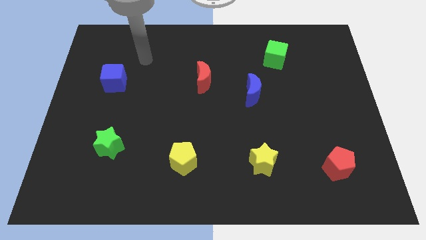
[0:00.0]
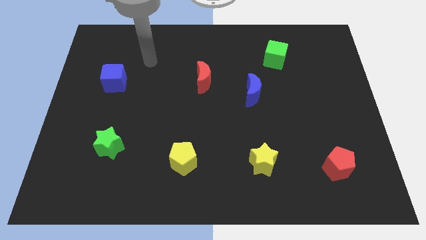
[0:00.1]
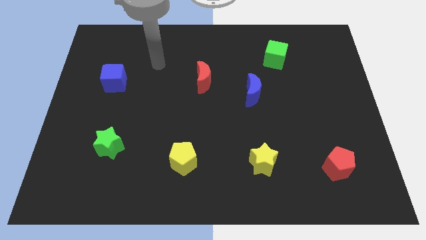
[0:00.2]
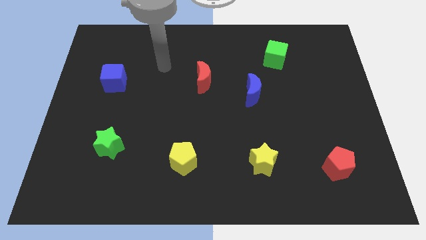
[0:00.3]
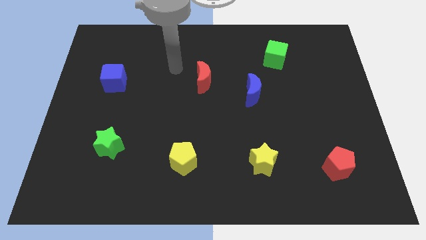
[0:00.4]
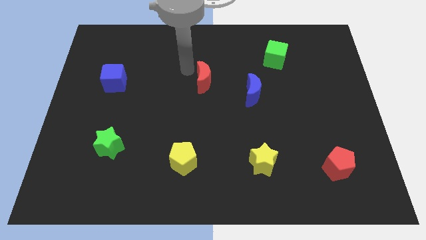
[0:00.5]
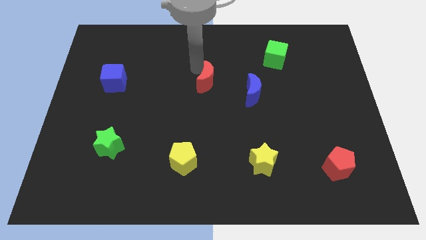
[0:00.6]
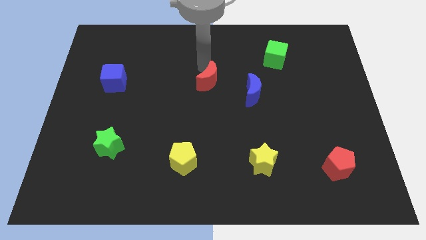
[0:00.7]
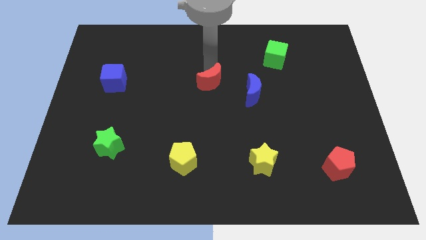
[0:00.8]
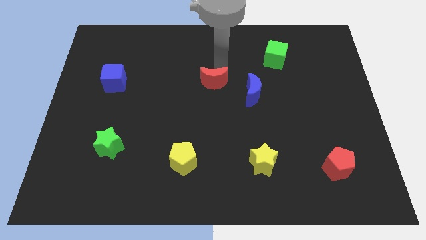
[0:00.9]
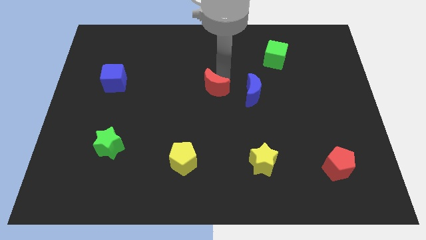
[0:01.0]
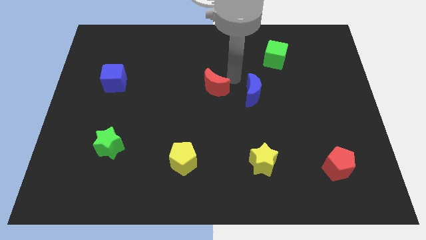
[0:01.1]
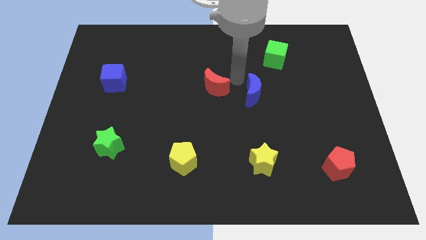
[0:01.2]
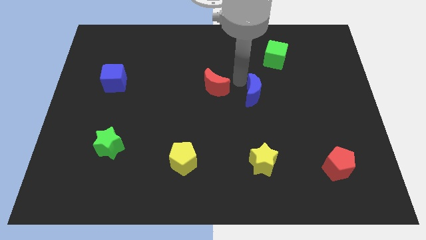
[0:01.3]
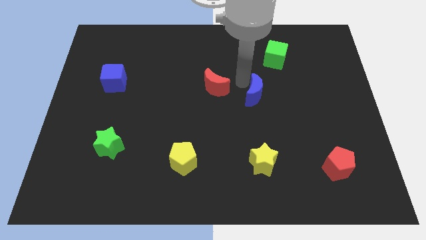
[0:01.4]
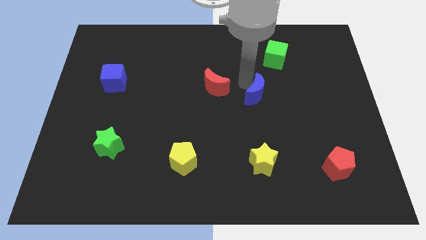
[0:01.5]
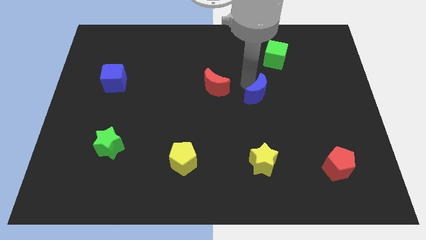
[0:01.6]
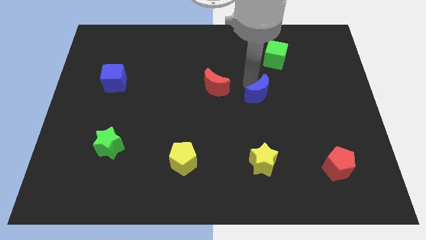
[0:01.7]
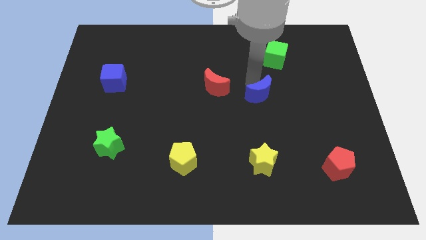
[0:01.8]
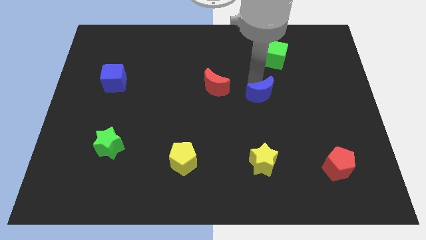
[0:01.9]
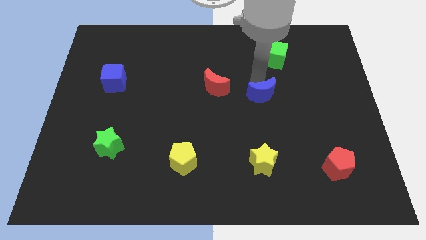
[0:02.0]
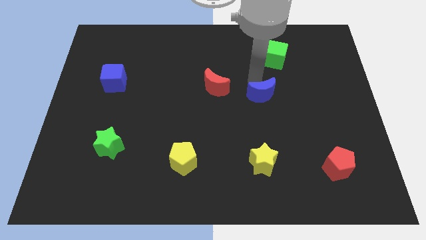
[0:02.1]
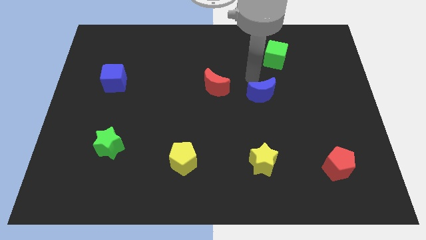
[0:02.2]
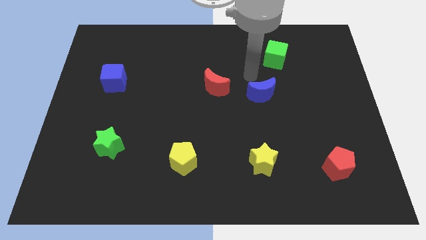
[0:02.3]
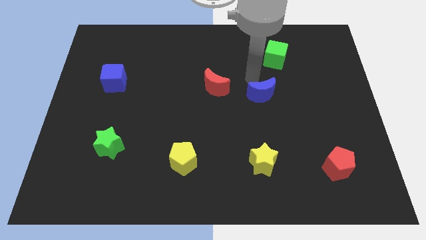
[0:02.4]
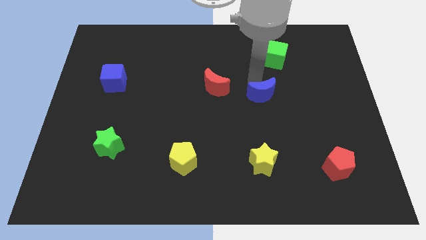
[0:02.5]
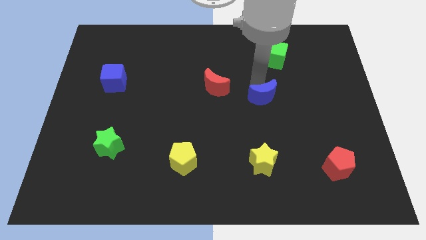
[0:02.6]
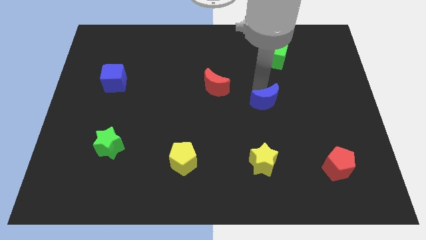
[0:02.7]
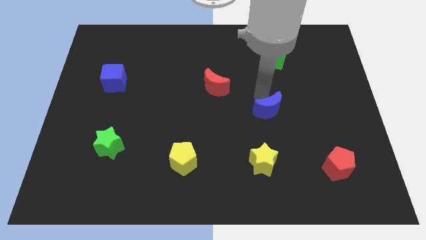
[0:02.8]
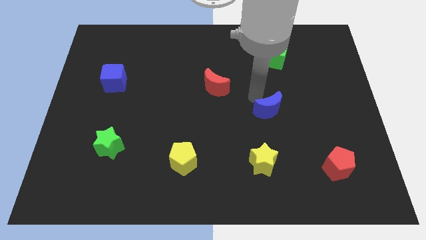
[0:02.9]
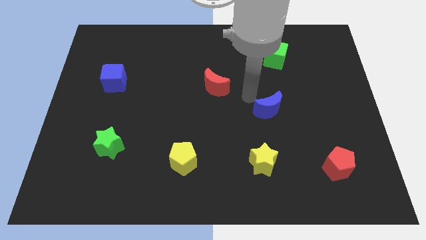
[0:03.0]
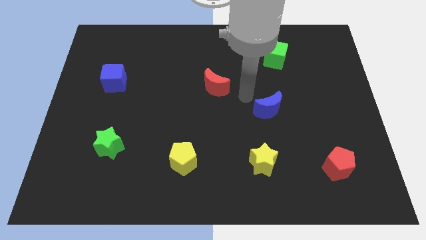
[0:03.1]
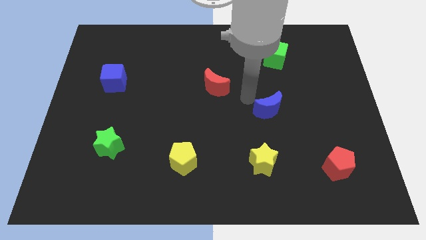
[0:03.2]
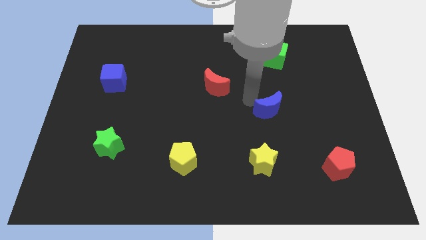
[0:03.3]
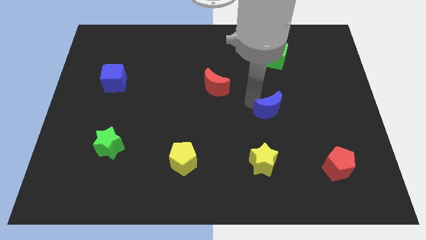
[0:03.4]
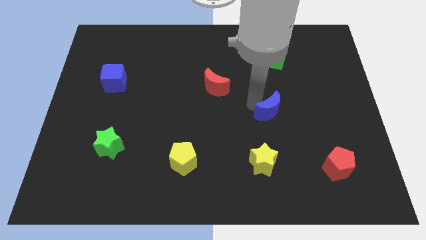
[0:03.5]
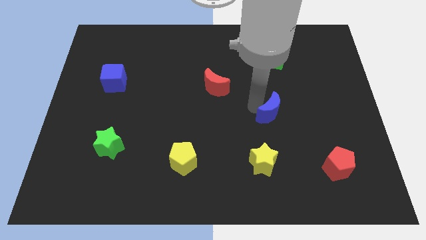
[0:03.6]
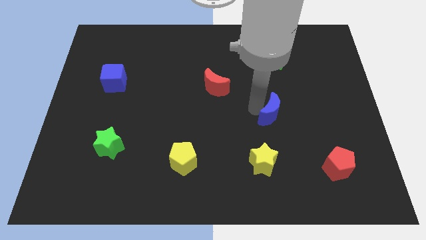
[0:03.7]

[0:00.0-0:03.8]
push the blue moon downwards and to the right diagonally somewhat

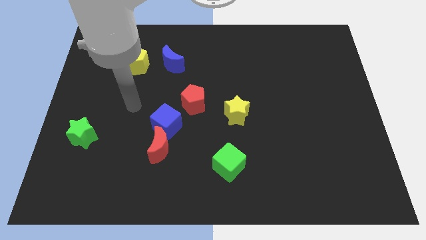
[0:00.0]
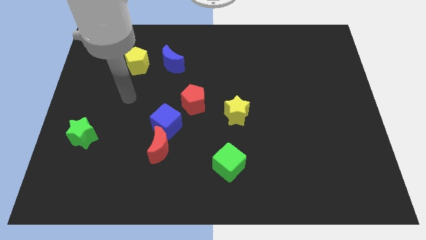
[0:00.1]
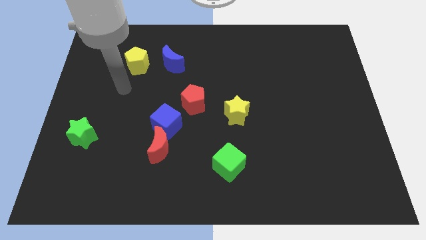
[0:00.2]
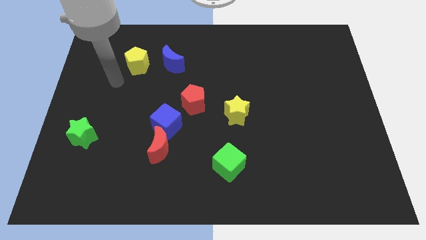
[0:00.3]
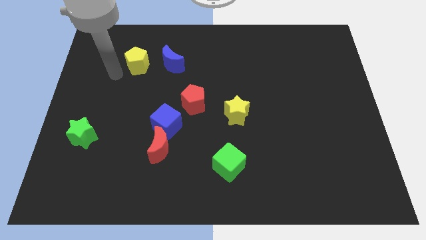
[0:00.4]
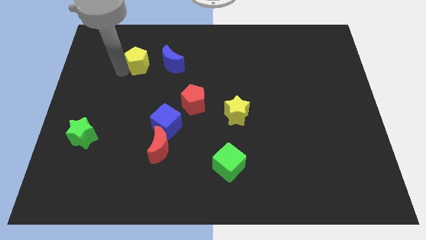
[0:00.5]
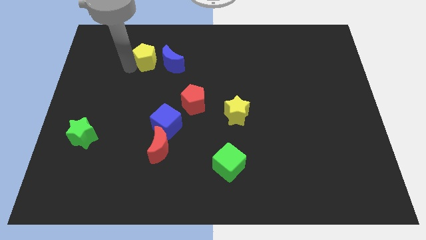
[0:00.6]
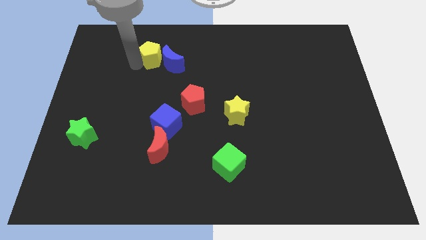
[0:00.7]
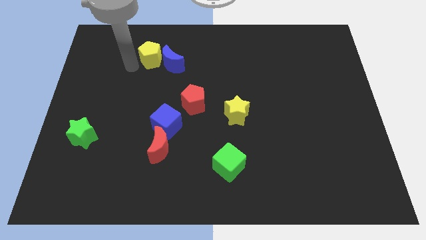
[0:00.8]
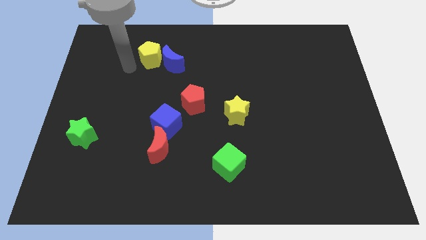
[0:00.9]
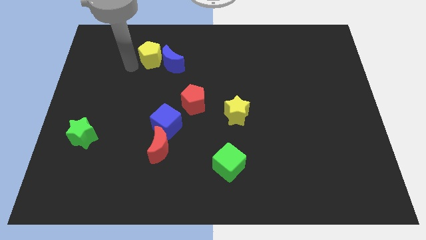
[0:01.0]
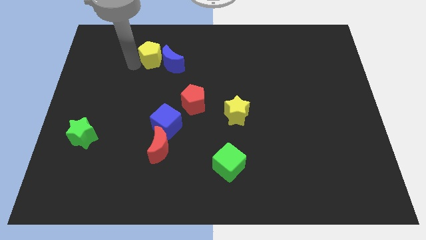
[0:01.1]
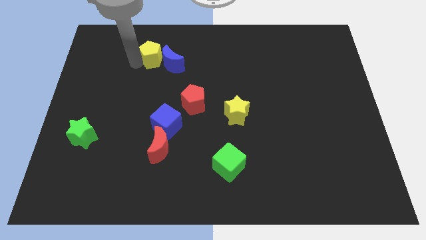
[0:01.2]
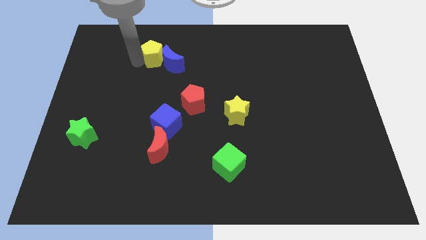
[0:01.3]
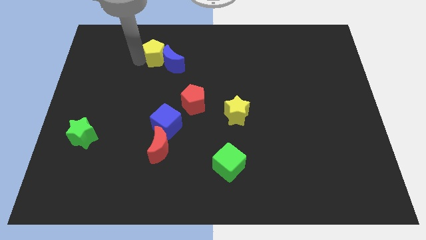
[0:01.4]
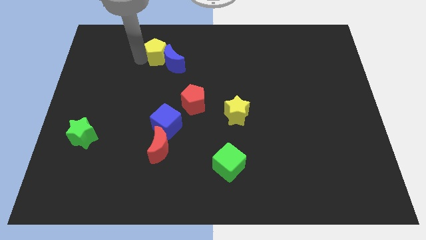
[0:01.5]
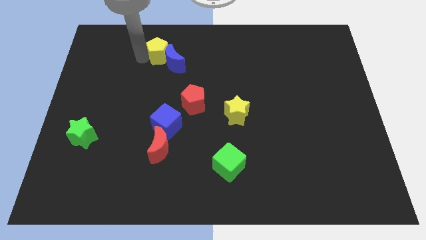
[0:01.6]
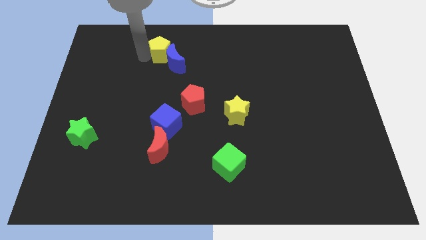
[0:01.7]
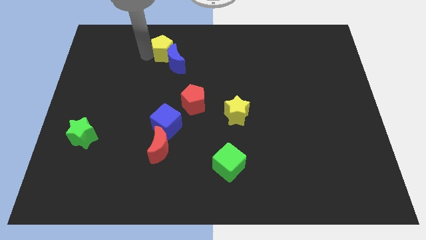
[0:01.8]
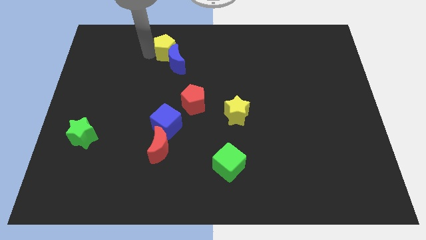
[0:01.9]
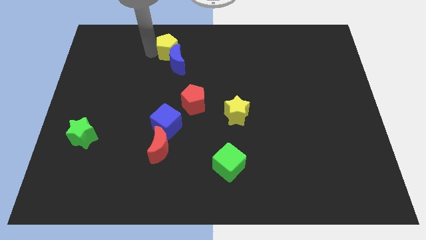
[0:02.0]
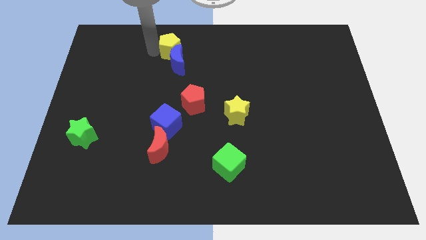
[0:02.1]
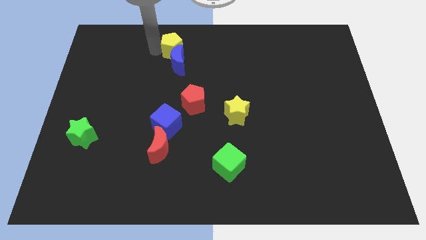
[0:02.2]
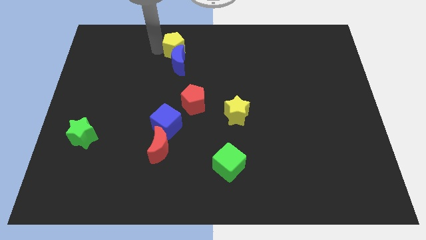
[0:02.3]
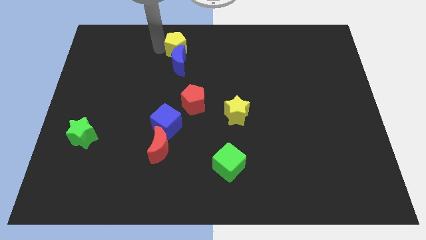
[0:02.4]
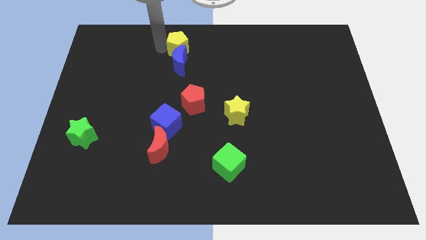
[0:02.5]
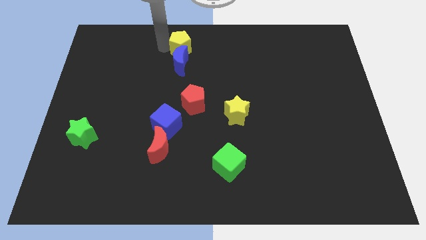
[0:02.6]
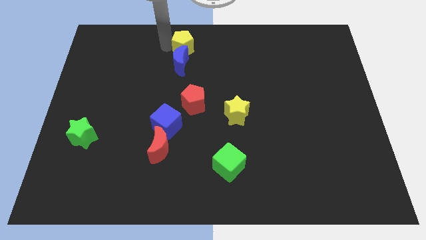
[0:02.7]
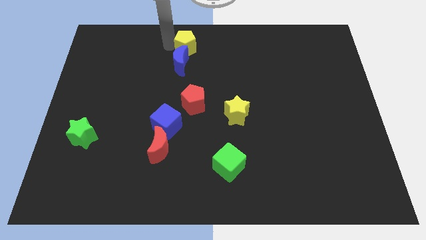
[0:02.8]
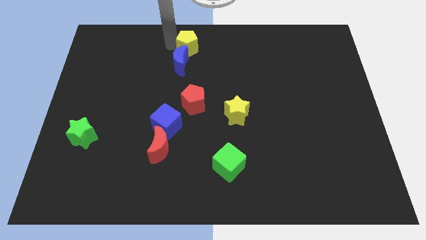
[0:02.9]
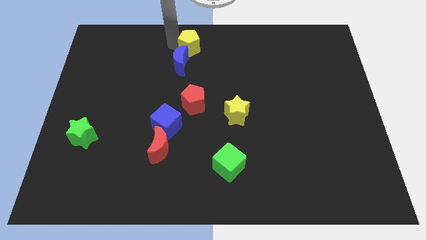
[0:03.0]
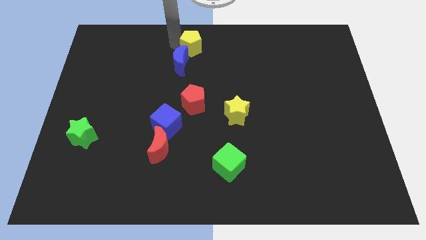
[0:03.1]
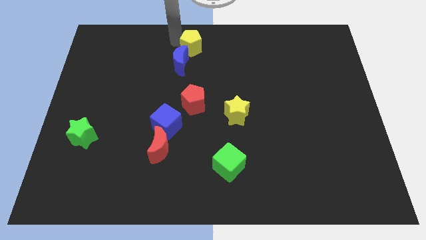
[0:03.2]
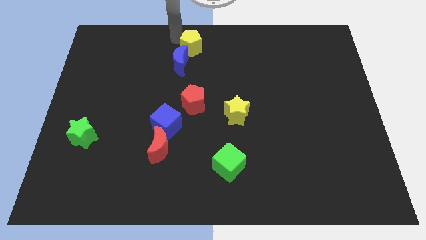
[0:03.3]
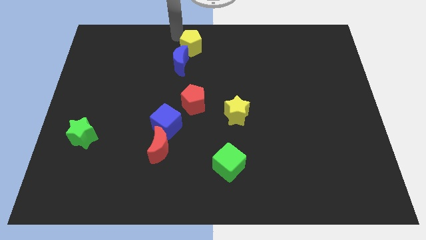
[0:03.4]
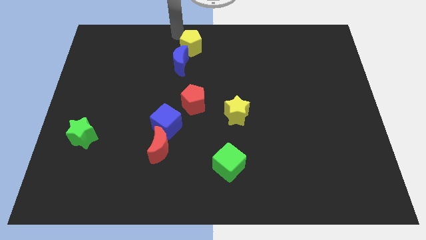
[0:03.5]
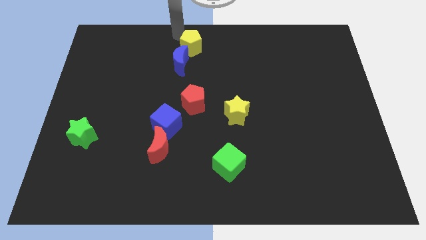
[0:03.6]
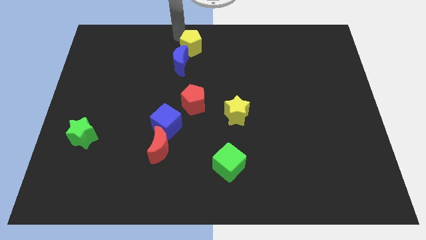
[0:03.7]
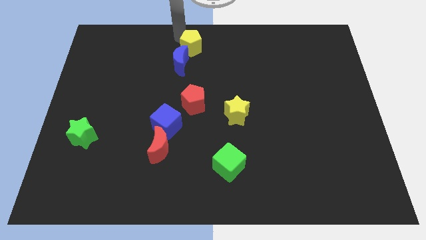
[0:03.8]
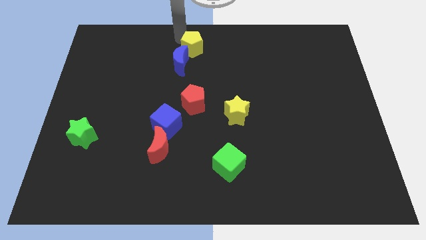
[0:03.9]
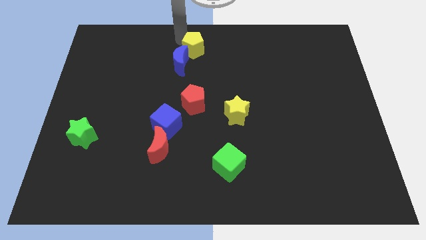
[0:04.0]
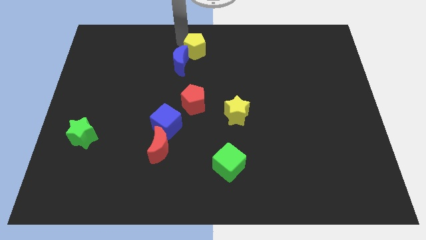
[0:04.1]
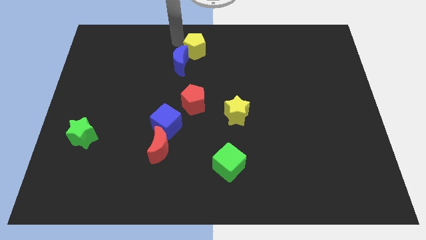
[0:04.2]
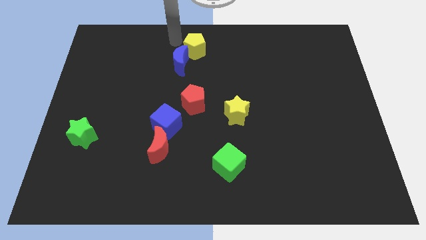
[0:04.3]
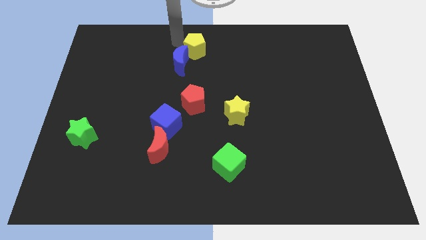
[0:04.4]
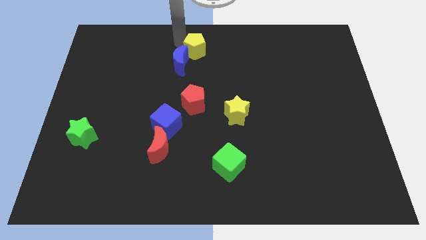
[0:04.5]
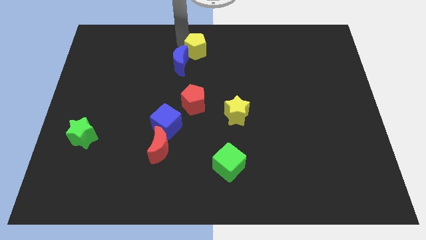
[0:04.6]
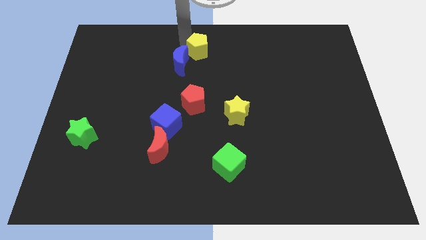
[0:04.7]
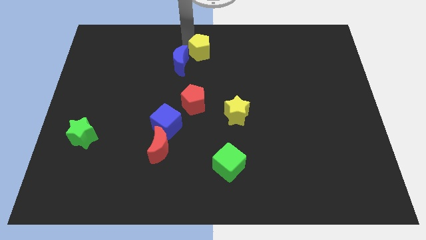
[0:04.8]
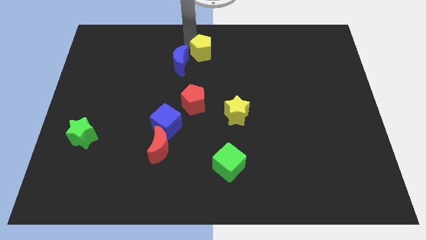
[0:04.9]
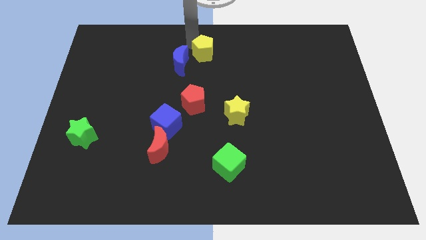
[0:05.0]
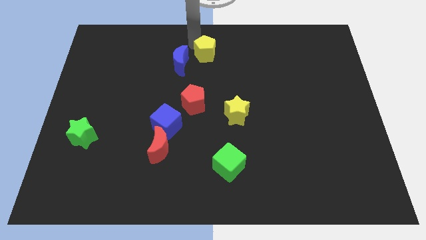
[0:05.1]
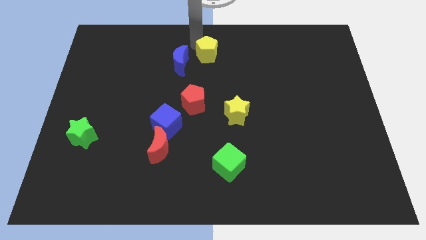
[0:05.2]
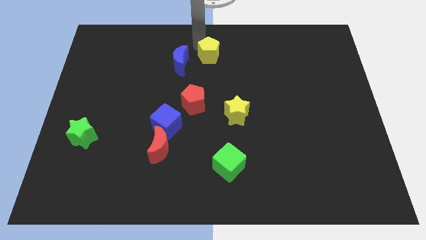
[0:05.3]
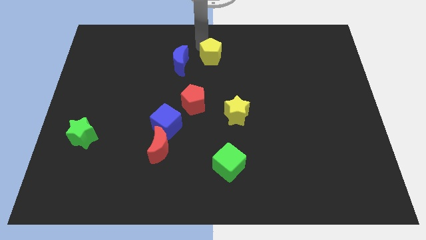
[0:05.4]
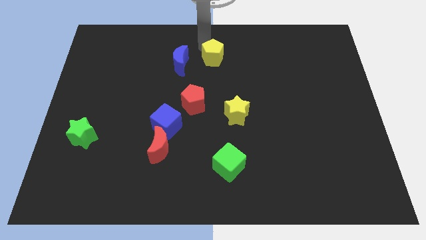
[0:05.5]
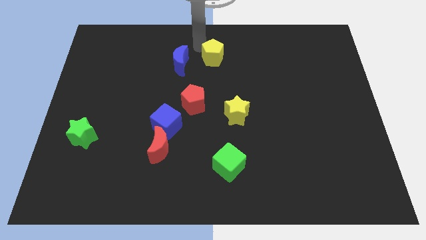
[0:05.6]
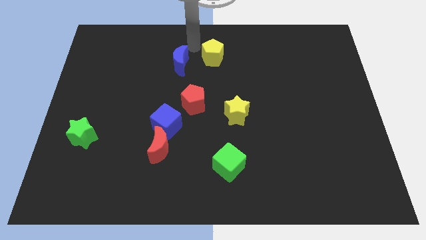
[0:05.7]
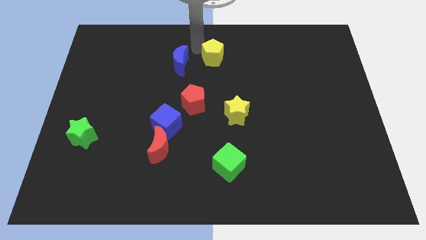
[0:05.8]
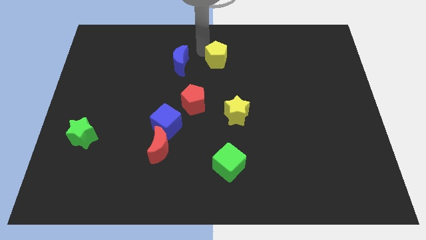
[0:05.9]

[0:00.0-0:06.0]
move the yellow pentagon right
